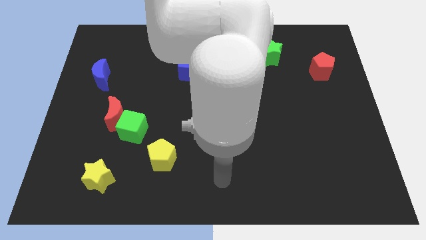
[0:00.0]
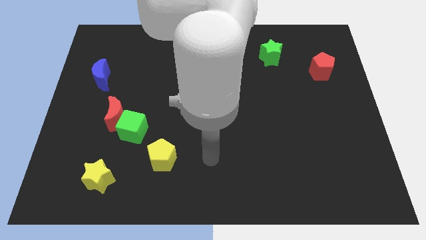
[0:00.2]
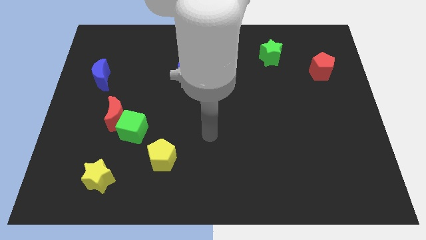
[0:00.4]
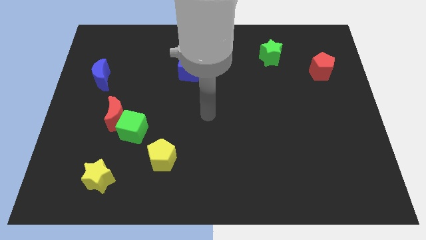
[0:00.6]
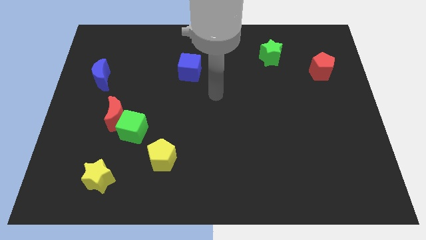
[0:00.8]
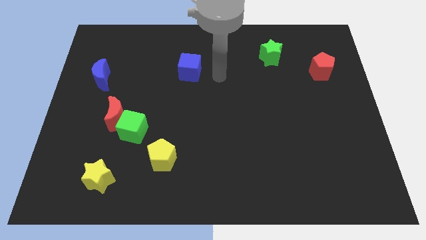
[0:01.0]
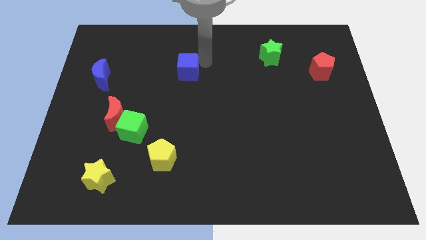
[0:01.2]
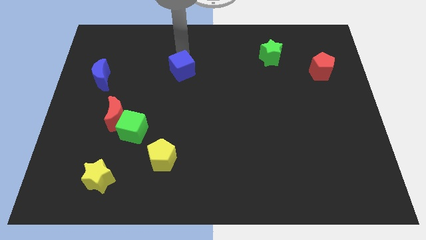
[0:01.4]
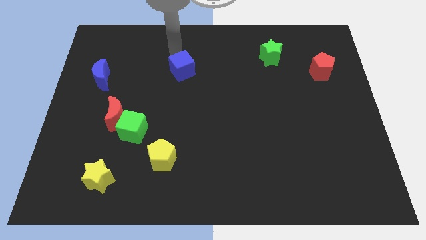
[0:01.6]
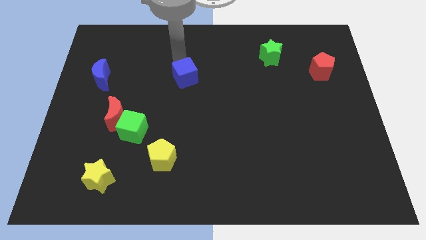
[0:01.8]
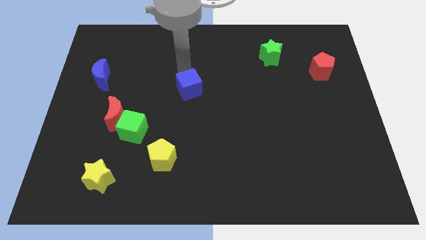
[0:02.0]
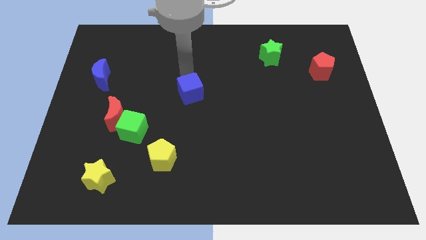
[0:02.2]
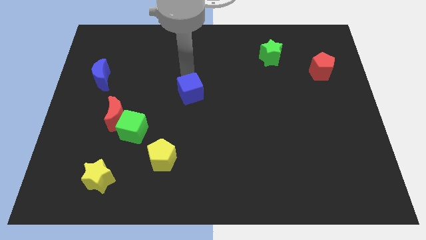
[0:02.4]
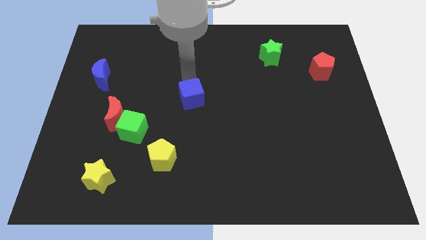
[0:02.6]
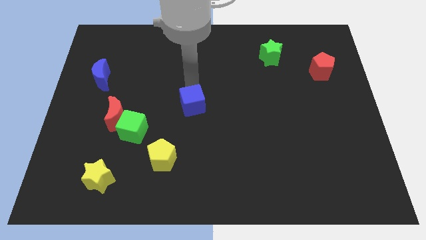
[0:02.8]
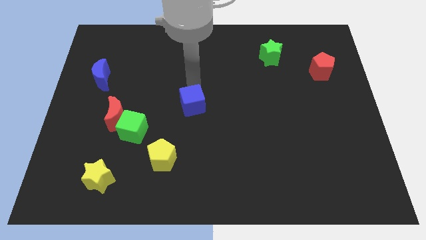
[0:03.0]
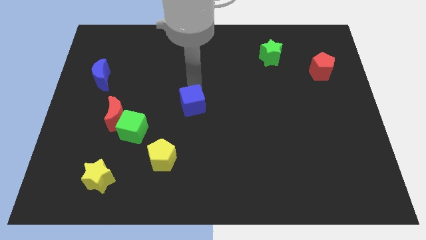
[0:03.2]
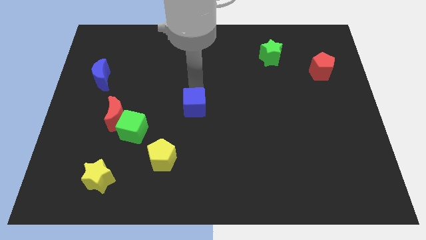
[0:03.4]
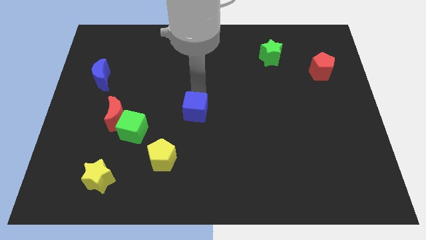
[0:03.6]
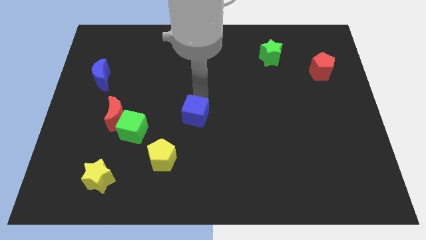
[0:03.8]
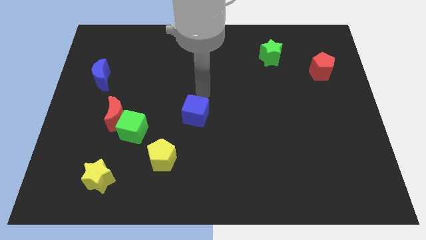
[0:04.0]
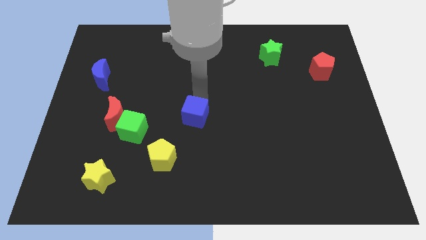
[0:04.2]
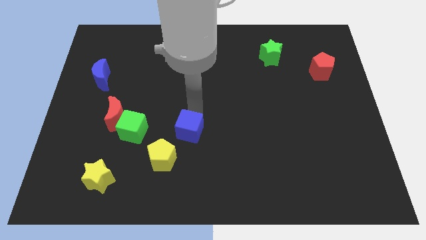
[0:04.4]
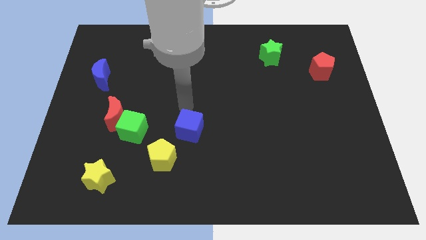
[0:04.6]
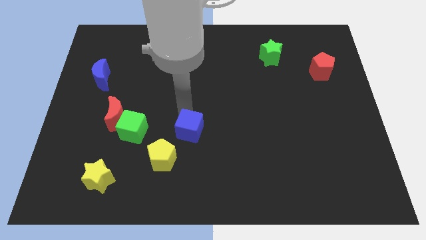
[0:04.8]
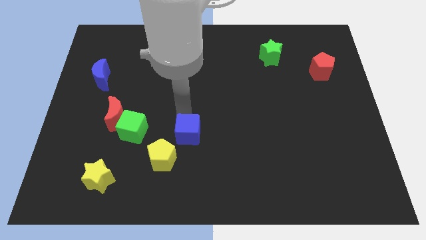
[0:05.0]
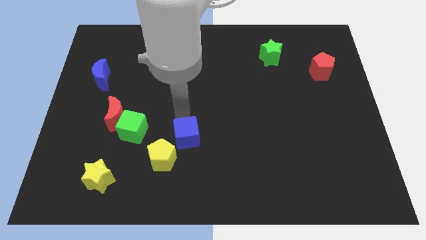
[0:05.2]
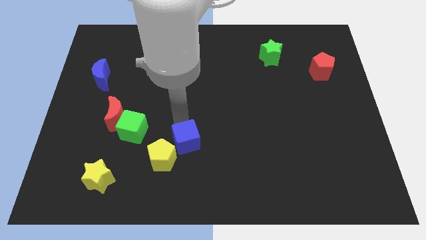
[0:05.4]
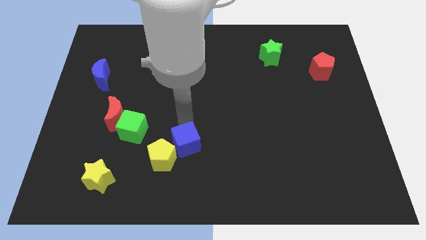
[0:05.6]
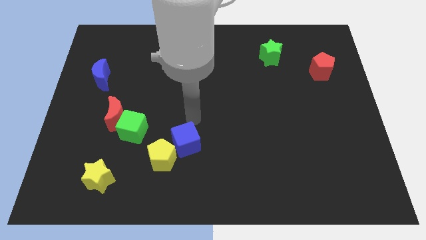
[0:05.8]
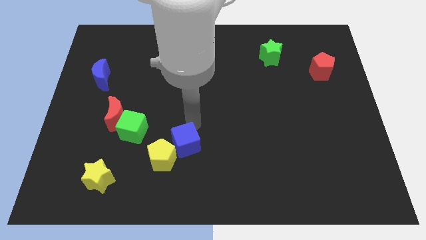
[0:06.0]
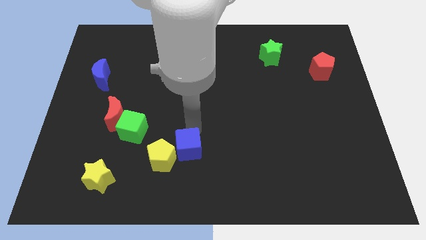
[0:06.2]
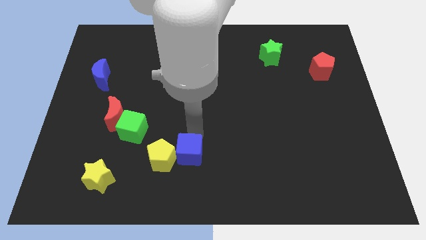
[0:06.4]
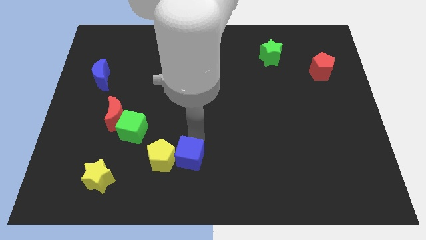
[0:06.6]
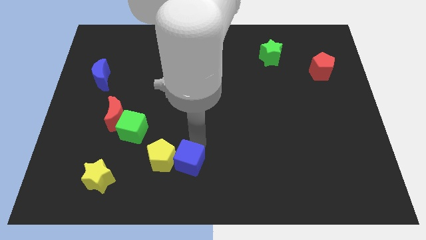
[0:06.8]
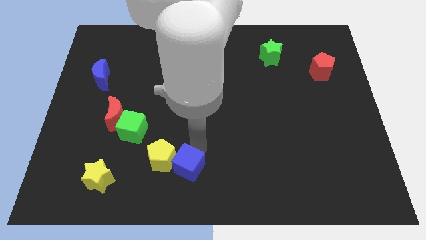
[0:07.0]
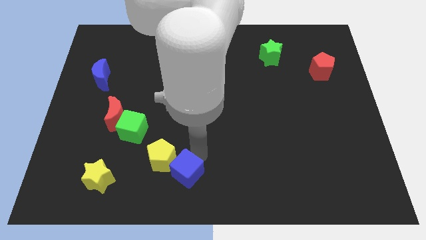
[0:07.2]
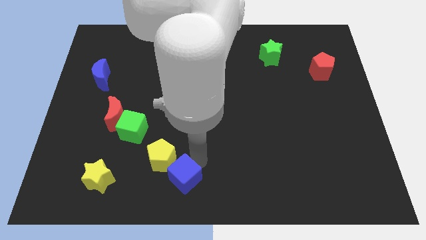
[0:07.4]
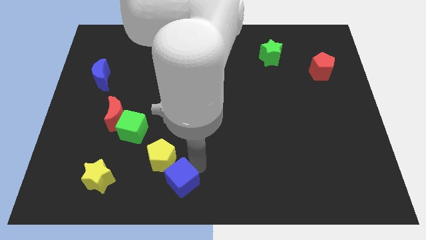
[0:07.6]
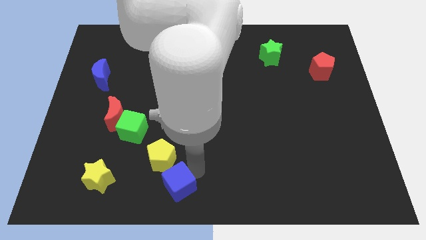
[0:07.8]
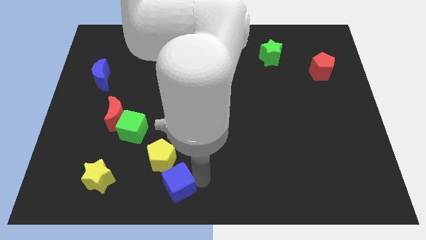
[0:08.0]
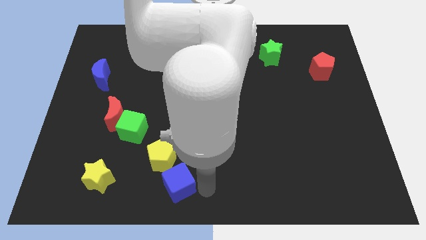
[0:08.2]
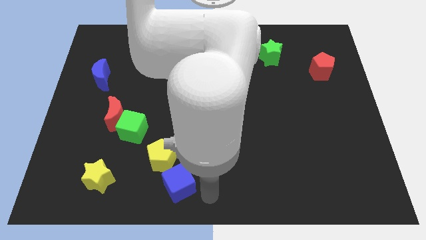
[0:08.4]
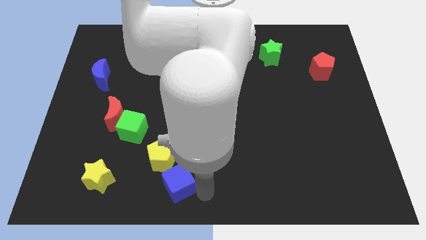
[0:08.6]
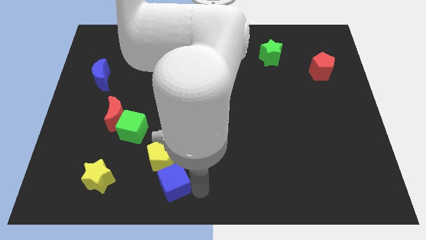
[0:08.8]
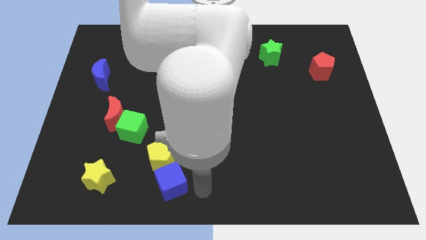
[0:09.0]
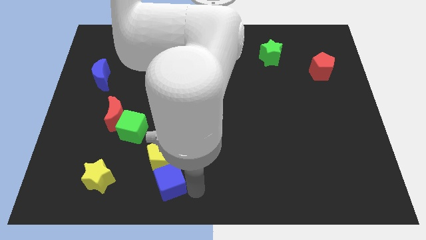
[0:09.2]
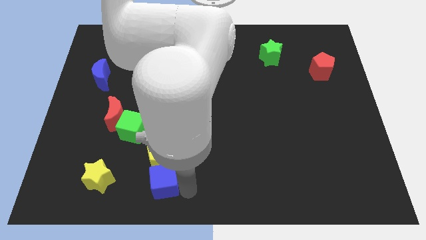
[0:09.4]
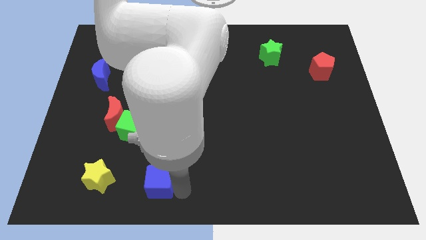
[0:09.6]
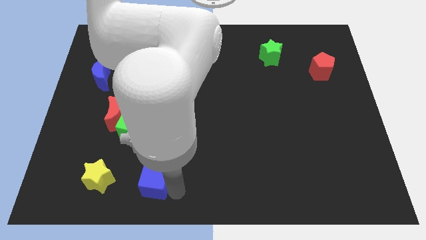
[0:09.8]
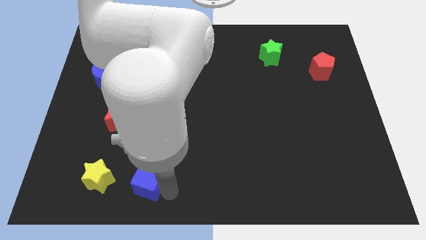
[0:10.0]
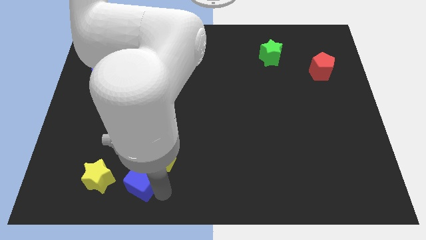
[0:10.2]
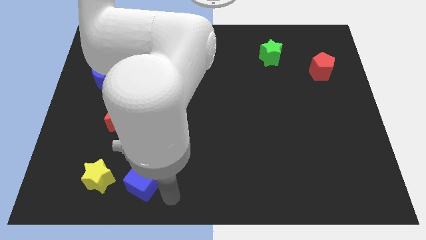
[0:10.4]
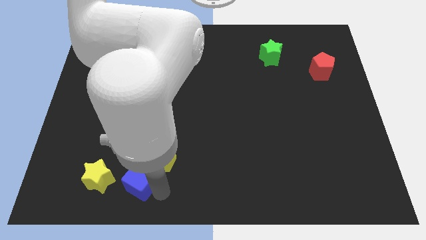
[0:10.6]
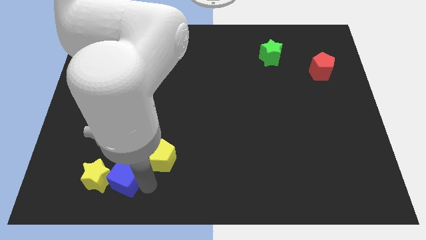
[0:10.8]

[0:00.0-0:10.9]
push the blue cube to the yellow star

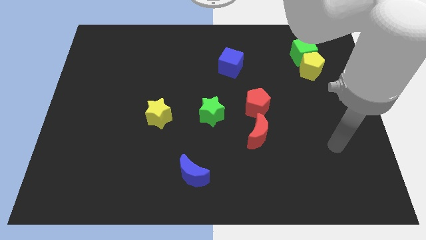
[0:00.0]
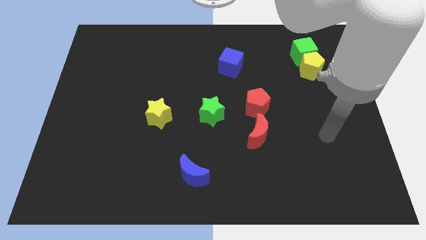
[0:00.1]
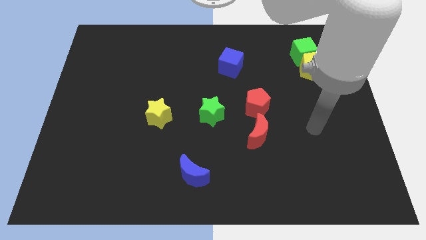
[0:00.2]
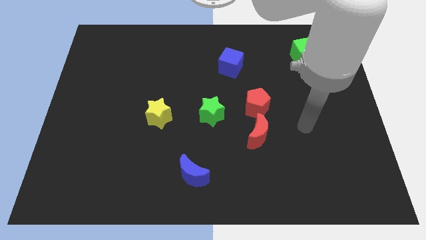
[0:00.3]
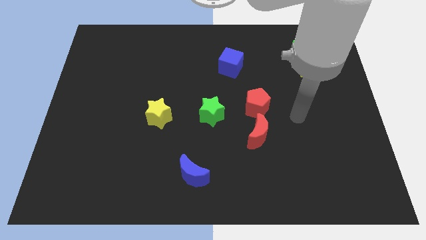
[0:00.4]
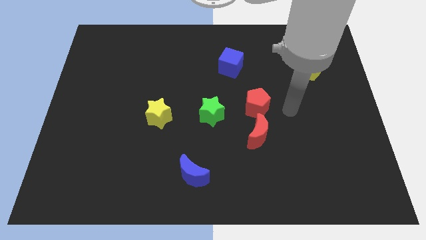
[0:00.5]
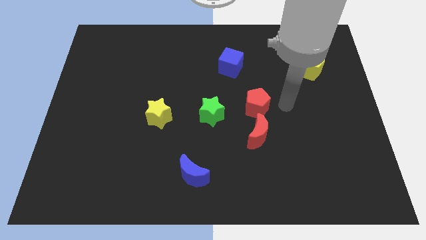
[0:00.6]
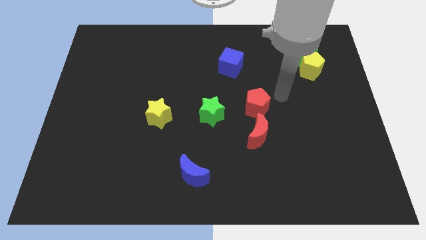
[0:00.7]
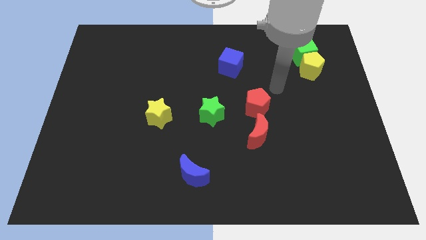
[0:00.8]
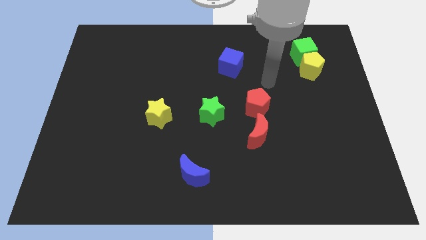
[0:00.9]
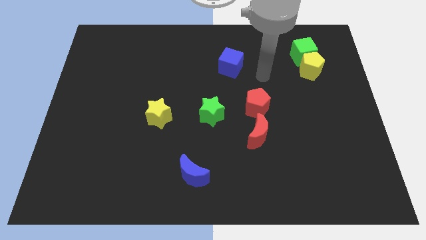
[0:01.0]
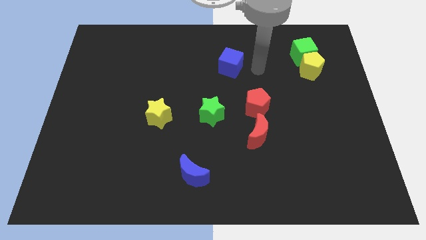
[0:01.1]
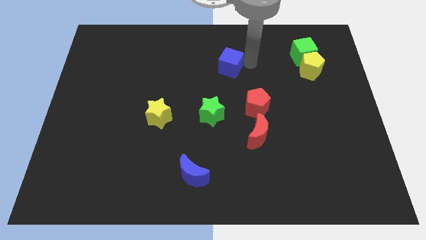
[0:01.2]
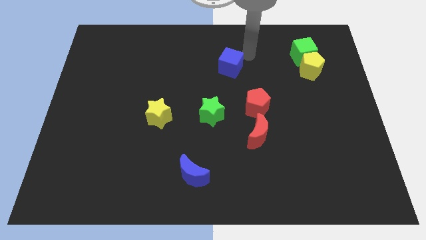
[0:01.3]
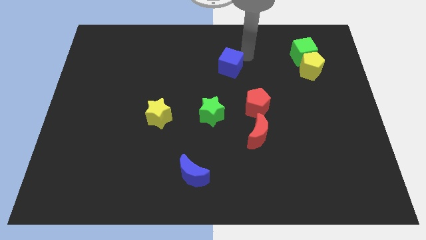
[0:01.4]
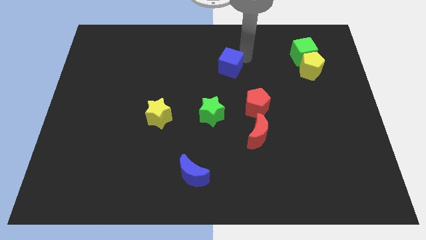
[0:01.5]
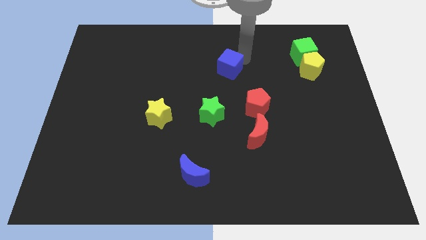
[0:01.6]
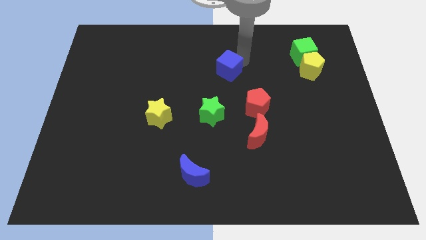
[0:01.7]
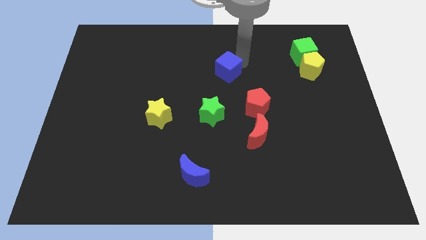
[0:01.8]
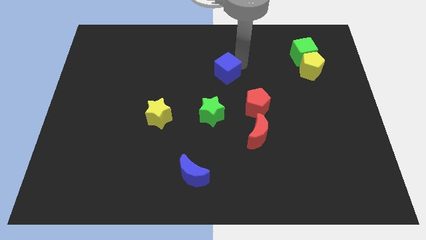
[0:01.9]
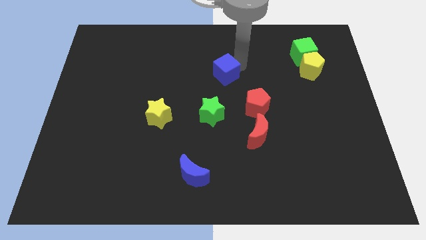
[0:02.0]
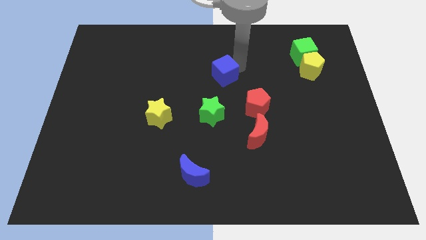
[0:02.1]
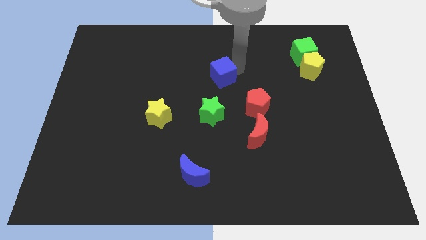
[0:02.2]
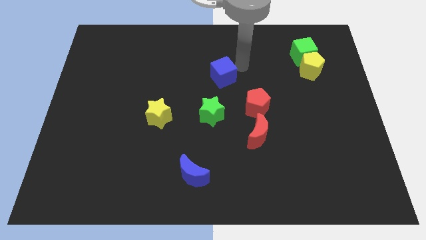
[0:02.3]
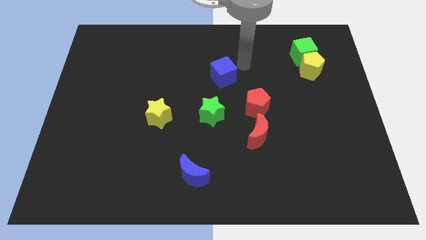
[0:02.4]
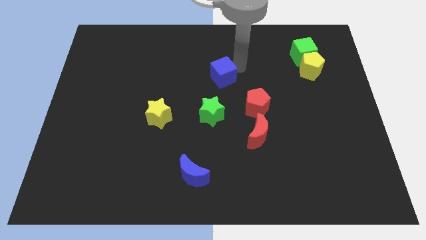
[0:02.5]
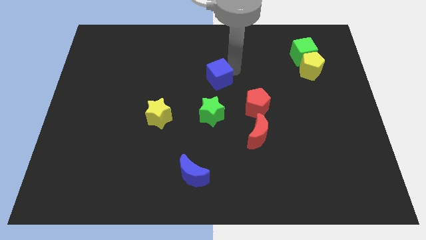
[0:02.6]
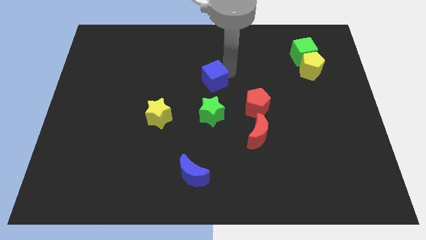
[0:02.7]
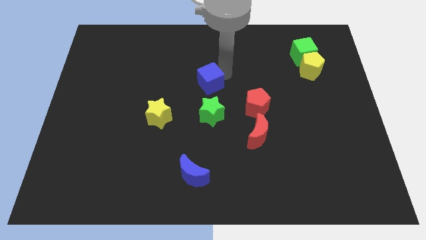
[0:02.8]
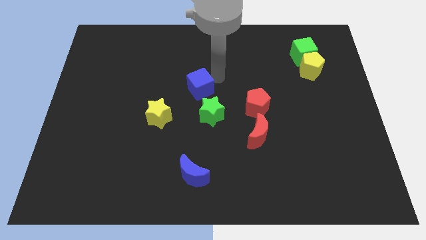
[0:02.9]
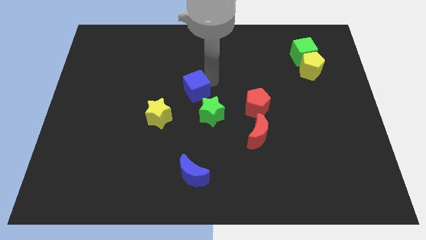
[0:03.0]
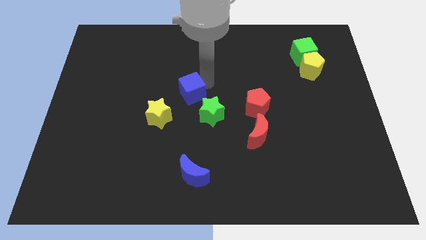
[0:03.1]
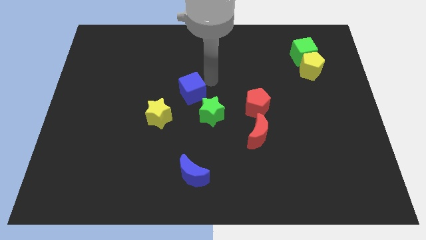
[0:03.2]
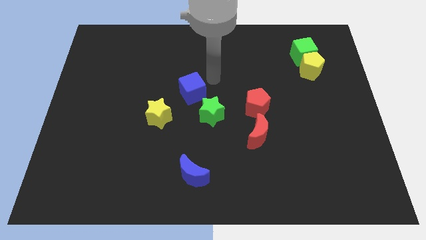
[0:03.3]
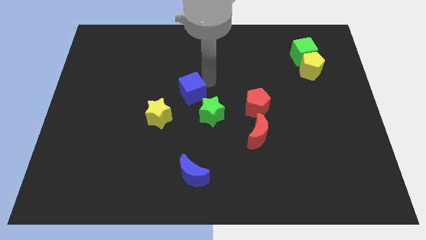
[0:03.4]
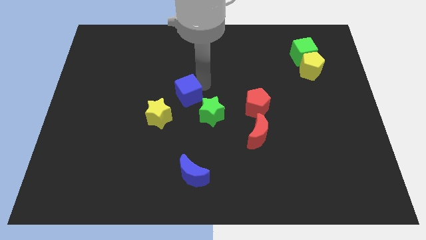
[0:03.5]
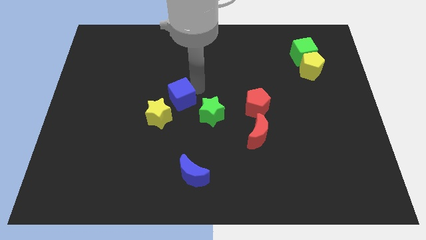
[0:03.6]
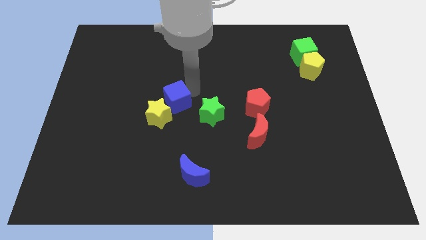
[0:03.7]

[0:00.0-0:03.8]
put the blue cube to the yellow star
